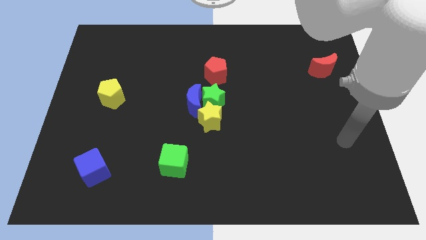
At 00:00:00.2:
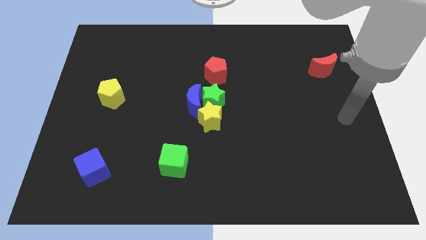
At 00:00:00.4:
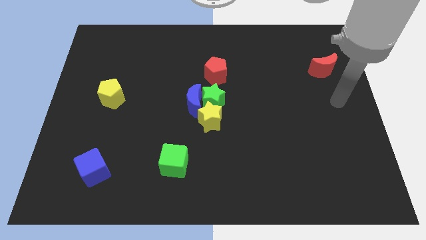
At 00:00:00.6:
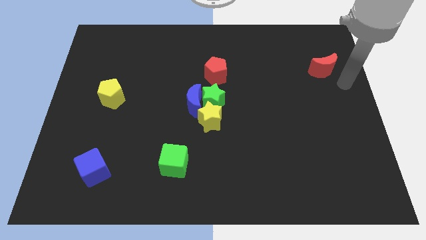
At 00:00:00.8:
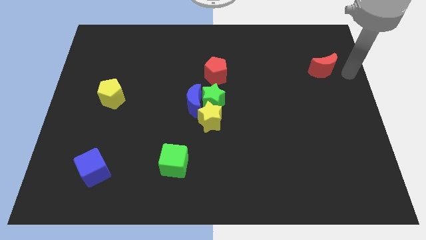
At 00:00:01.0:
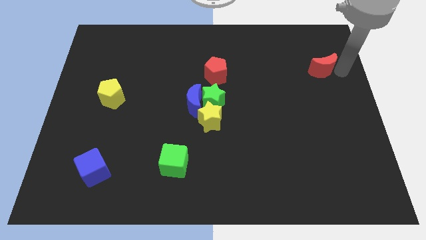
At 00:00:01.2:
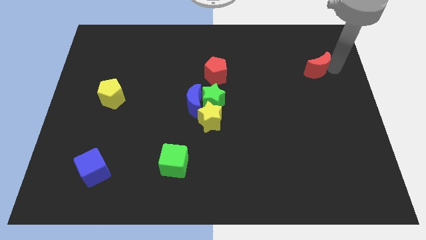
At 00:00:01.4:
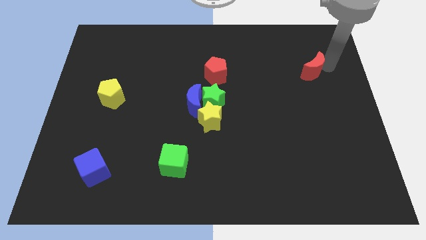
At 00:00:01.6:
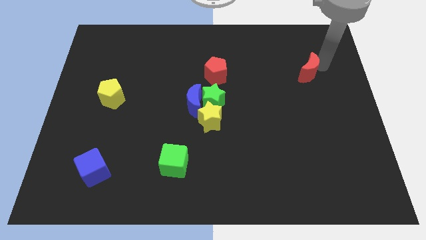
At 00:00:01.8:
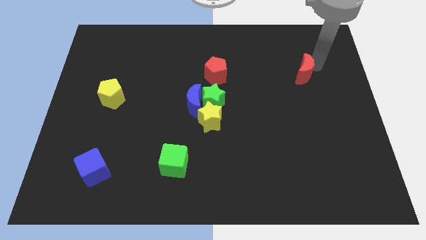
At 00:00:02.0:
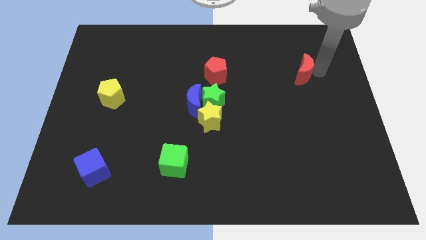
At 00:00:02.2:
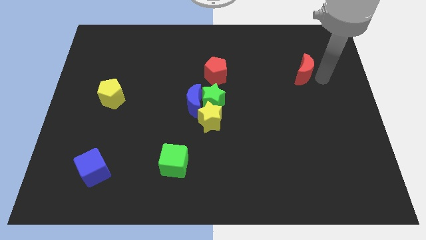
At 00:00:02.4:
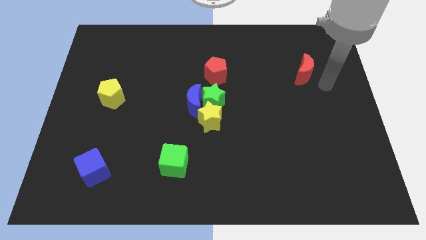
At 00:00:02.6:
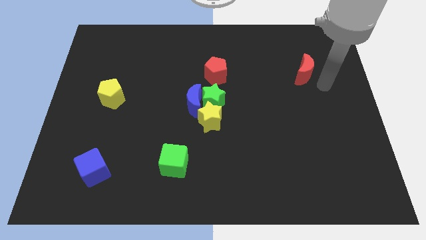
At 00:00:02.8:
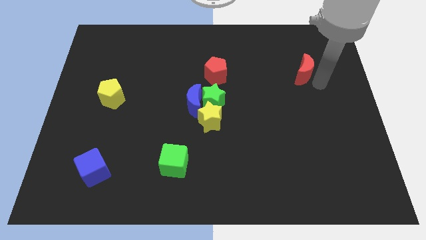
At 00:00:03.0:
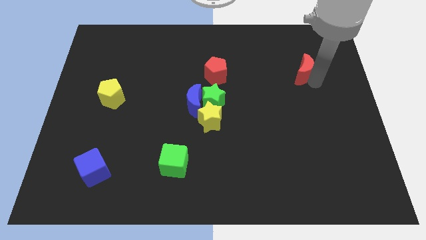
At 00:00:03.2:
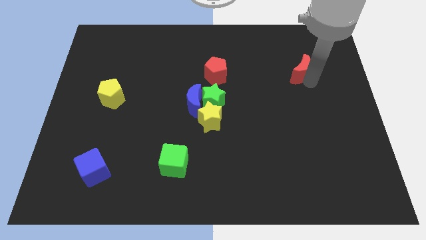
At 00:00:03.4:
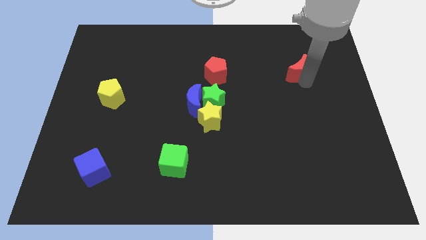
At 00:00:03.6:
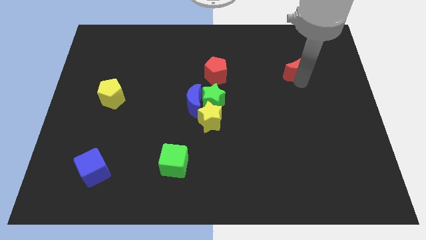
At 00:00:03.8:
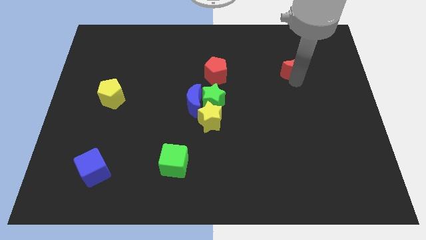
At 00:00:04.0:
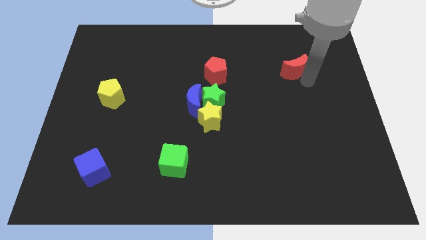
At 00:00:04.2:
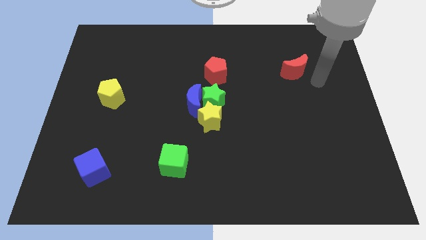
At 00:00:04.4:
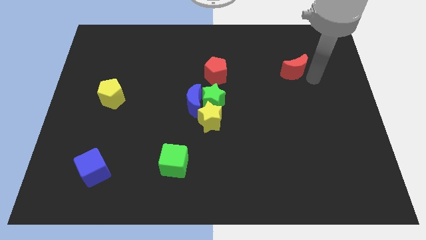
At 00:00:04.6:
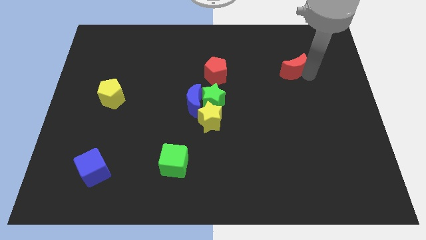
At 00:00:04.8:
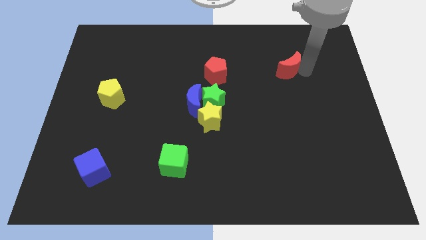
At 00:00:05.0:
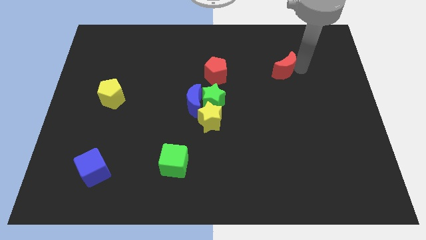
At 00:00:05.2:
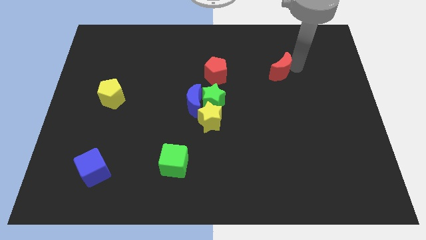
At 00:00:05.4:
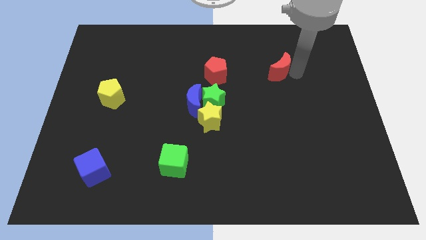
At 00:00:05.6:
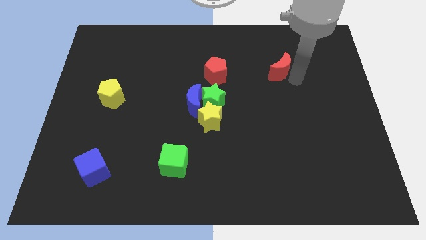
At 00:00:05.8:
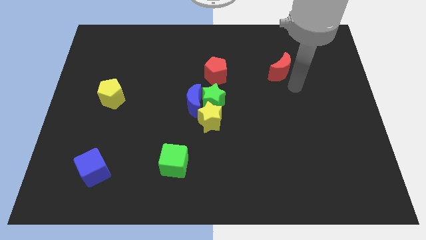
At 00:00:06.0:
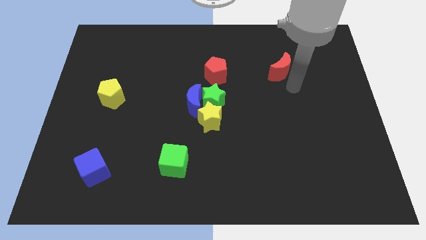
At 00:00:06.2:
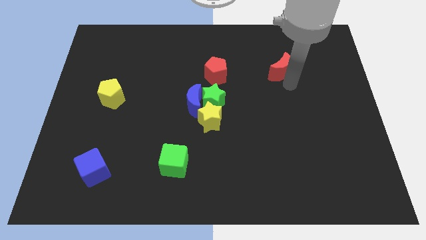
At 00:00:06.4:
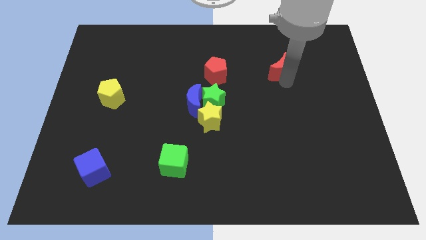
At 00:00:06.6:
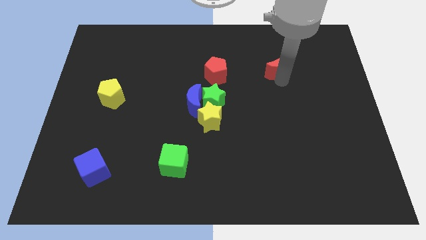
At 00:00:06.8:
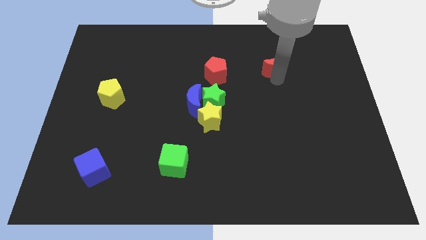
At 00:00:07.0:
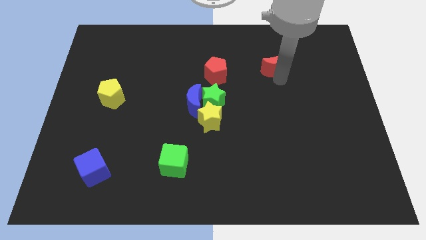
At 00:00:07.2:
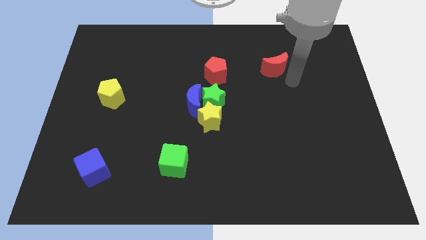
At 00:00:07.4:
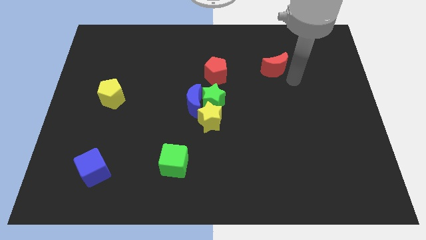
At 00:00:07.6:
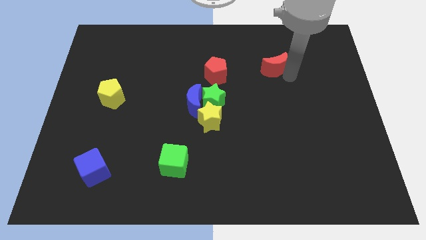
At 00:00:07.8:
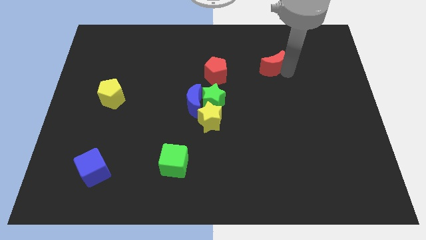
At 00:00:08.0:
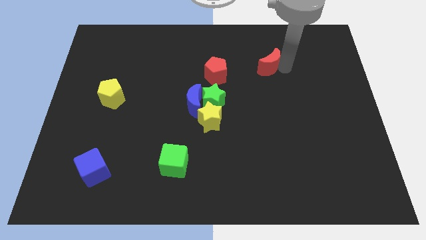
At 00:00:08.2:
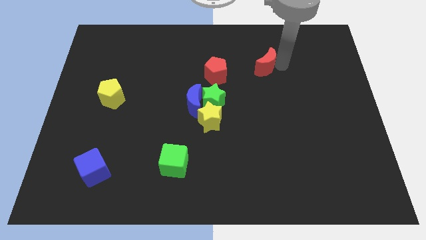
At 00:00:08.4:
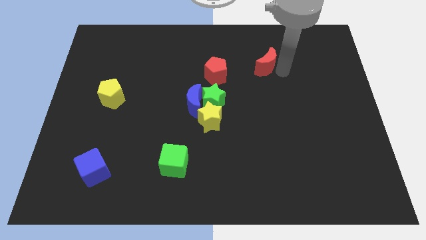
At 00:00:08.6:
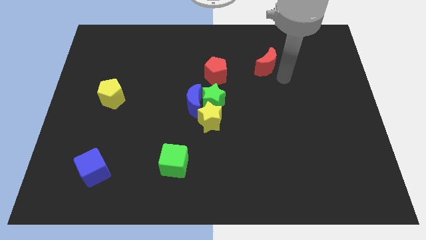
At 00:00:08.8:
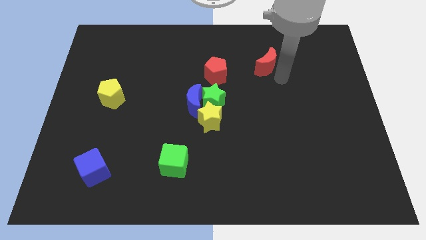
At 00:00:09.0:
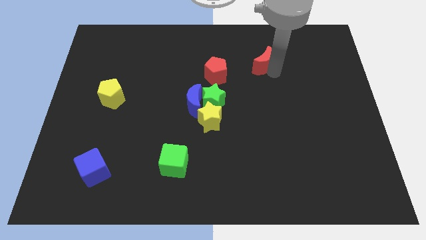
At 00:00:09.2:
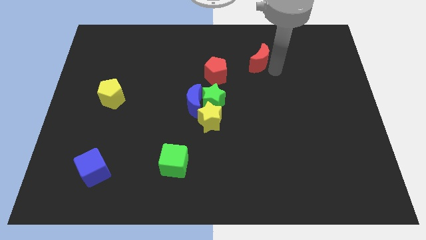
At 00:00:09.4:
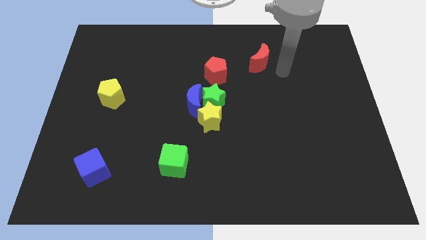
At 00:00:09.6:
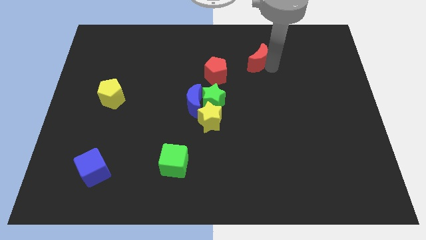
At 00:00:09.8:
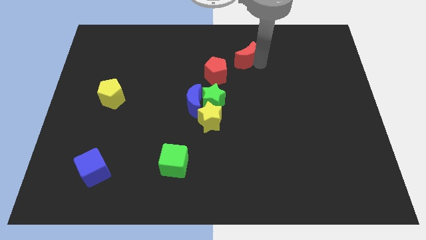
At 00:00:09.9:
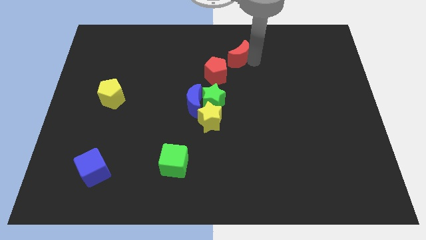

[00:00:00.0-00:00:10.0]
slide the red moon left

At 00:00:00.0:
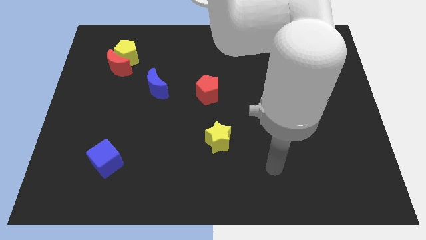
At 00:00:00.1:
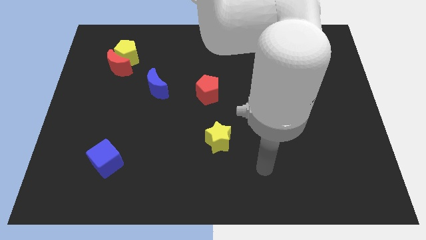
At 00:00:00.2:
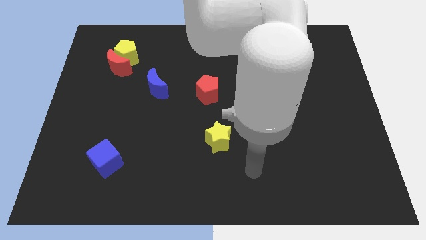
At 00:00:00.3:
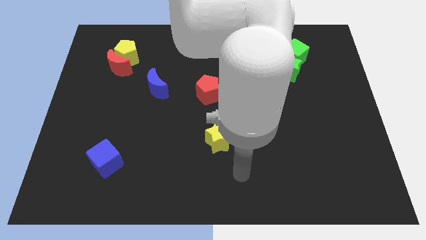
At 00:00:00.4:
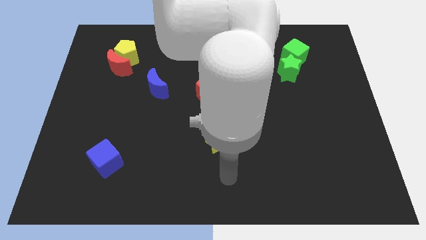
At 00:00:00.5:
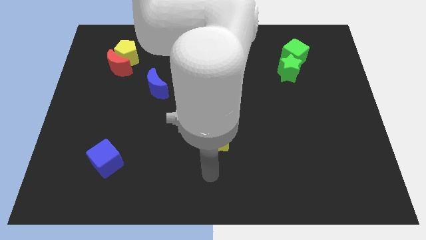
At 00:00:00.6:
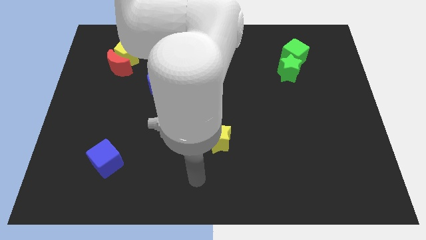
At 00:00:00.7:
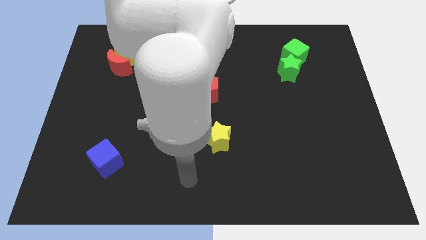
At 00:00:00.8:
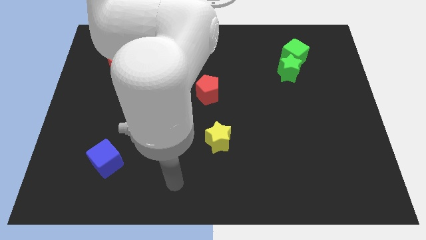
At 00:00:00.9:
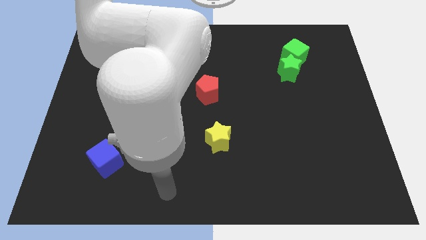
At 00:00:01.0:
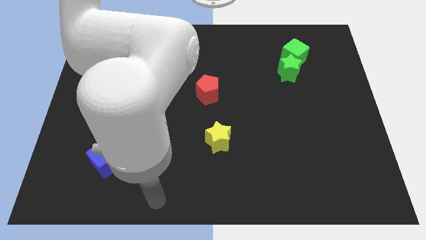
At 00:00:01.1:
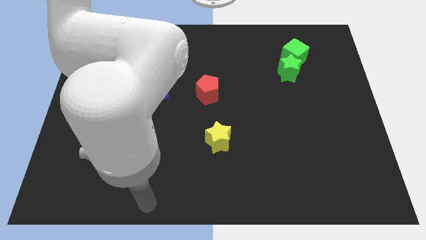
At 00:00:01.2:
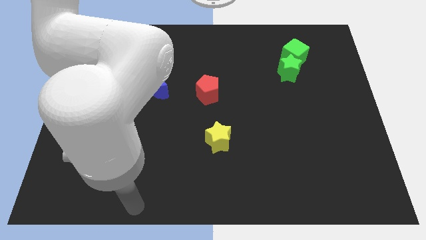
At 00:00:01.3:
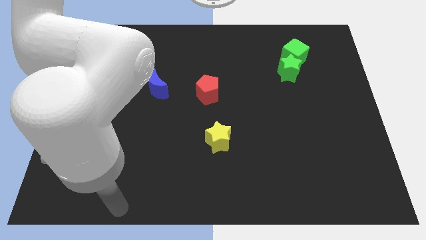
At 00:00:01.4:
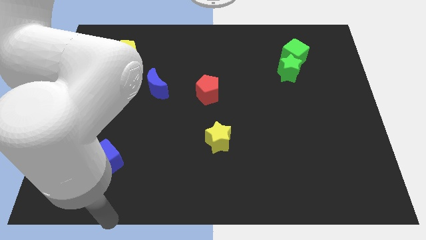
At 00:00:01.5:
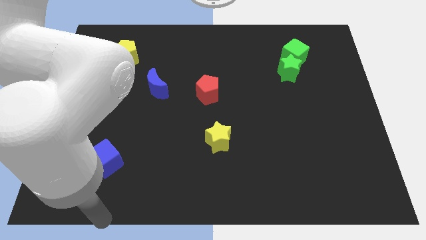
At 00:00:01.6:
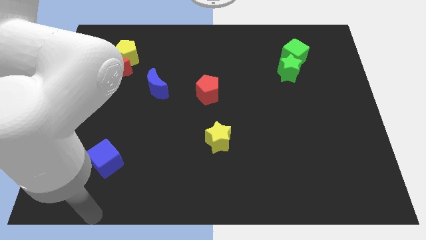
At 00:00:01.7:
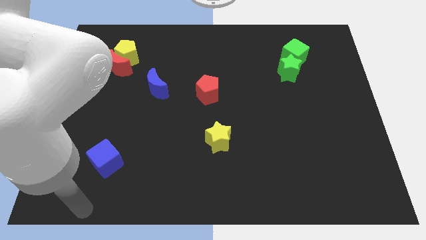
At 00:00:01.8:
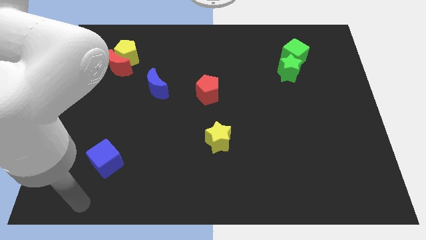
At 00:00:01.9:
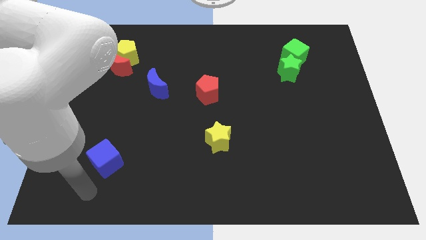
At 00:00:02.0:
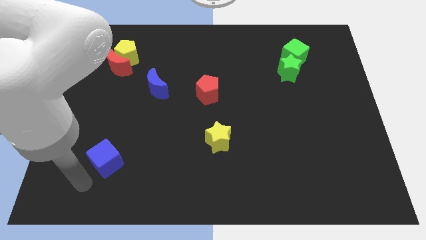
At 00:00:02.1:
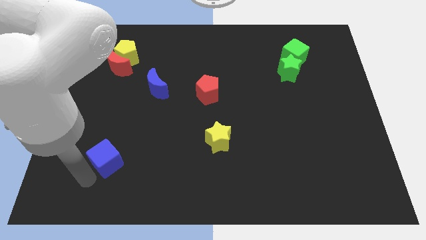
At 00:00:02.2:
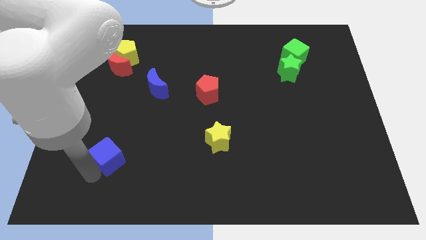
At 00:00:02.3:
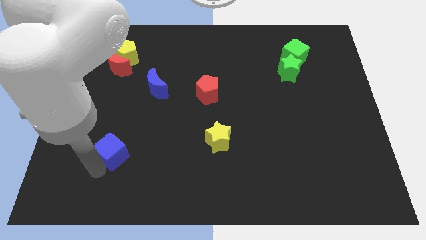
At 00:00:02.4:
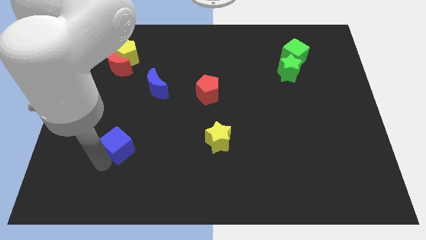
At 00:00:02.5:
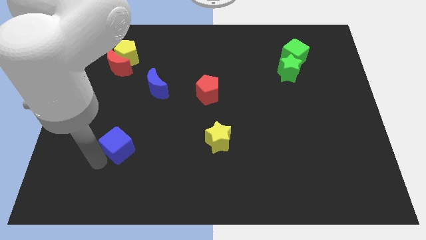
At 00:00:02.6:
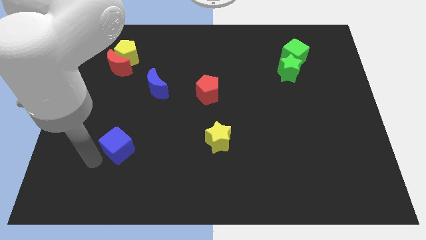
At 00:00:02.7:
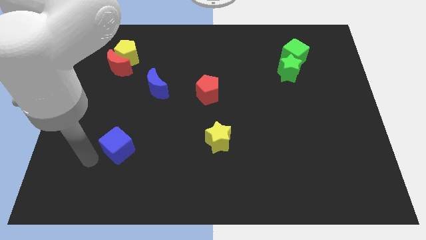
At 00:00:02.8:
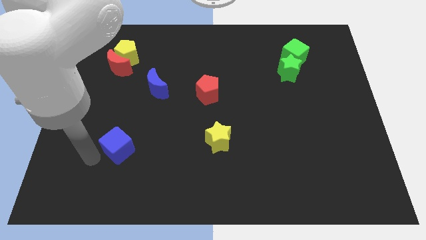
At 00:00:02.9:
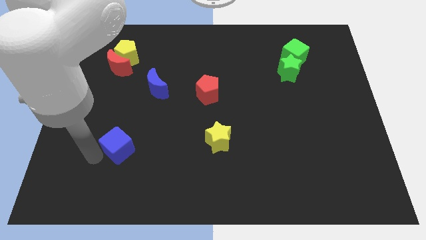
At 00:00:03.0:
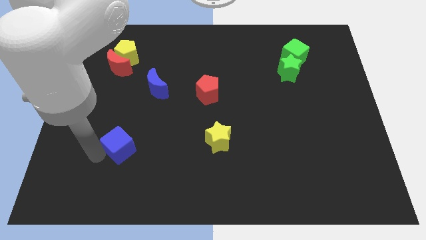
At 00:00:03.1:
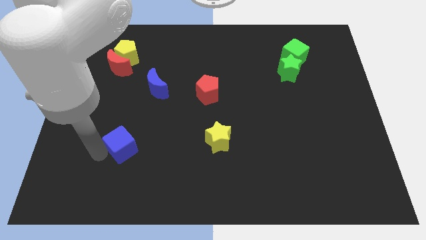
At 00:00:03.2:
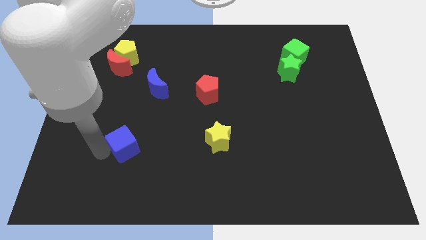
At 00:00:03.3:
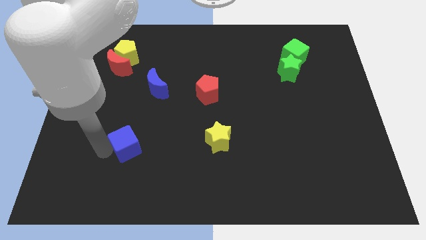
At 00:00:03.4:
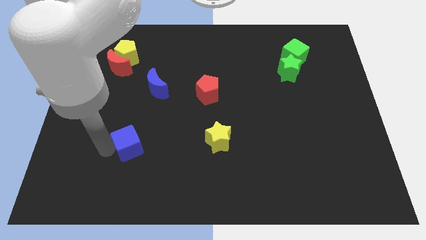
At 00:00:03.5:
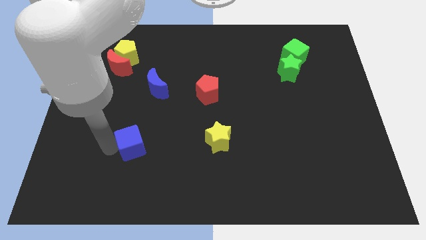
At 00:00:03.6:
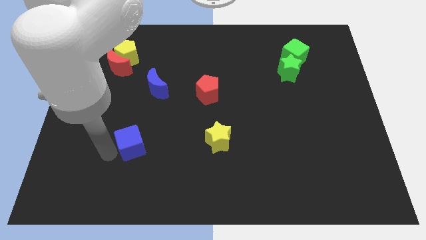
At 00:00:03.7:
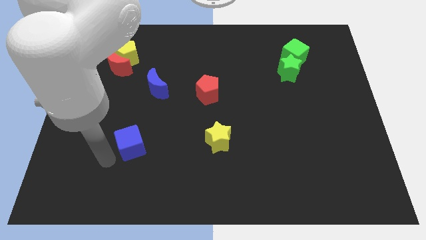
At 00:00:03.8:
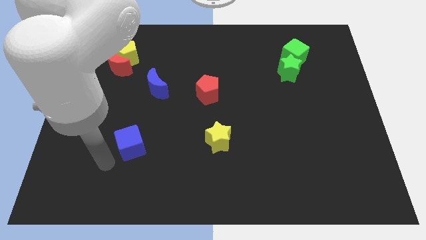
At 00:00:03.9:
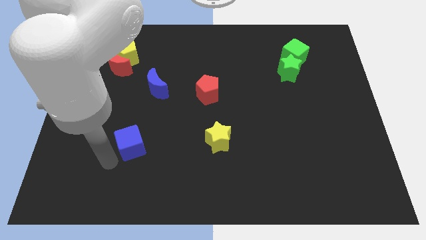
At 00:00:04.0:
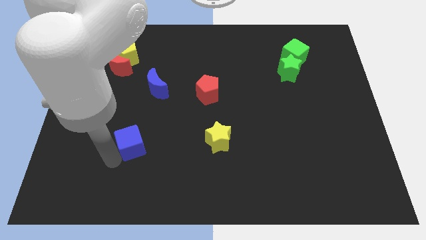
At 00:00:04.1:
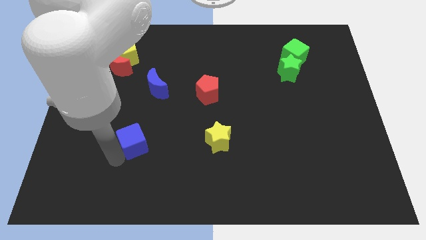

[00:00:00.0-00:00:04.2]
slightly push the blue cube diagonally up and right
